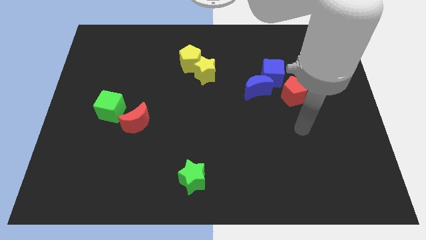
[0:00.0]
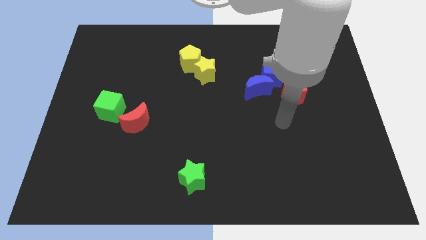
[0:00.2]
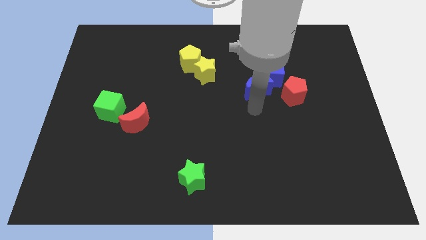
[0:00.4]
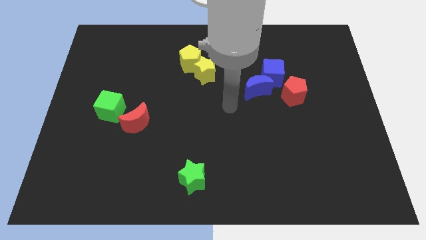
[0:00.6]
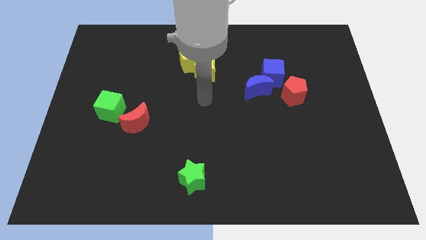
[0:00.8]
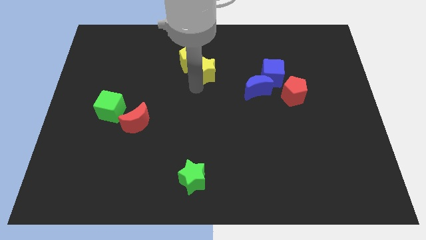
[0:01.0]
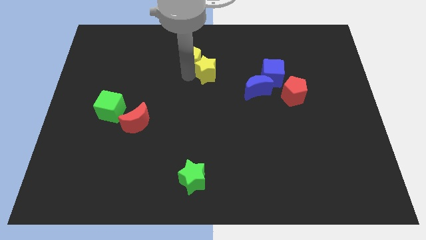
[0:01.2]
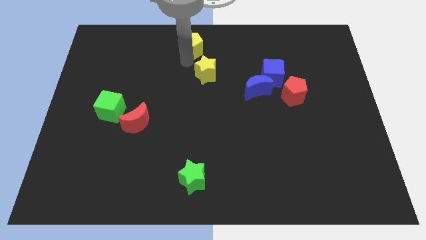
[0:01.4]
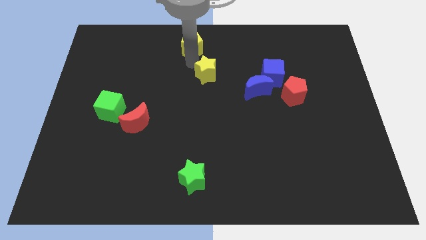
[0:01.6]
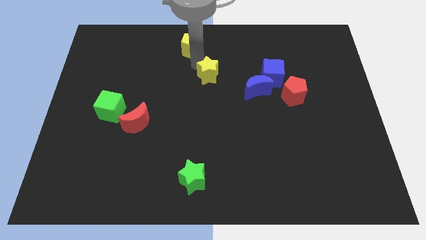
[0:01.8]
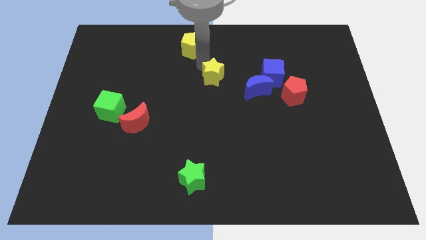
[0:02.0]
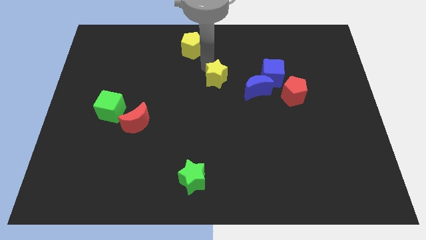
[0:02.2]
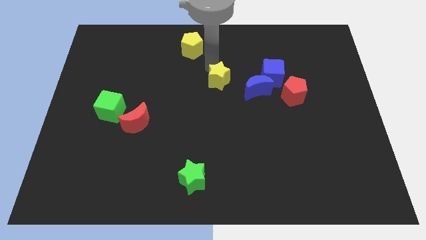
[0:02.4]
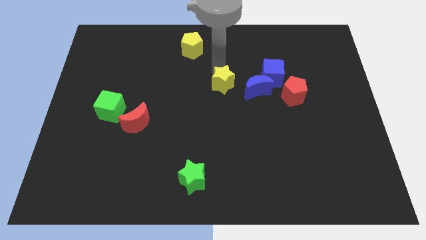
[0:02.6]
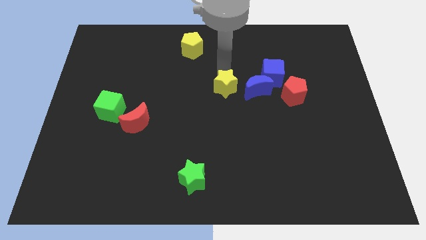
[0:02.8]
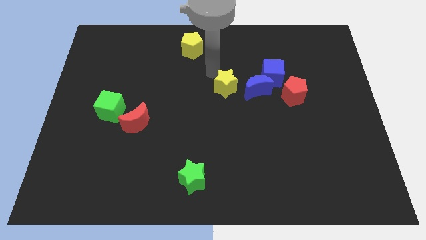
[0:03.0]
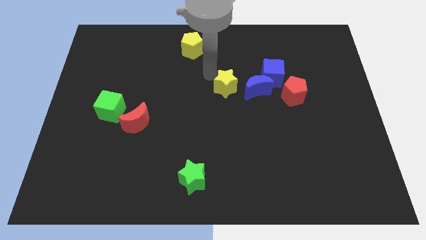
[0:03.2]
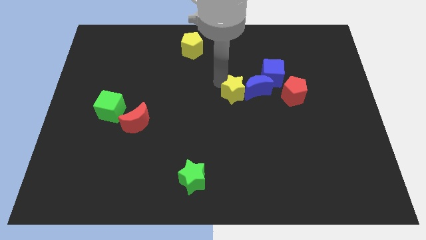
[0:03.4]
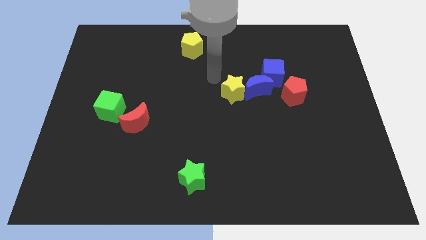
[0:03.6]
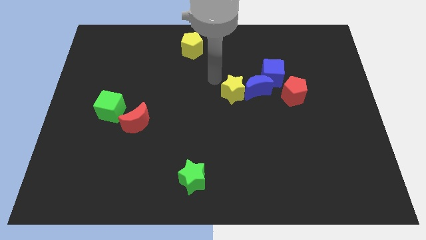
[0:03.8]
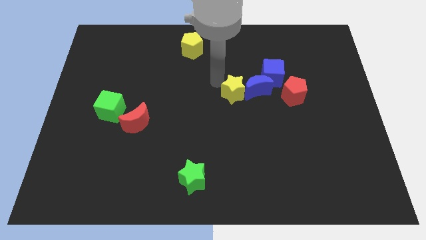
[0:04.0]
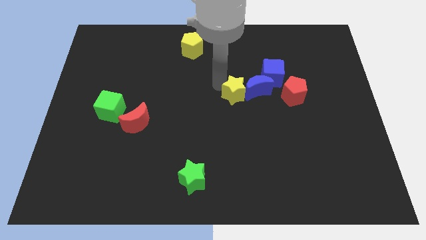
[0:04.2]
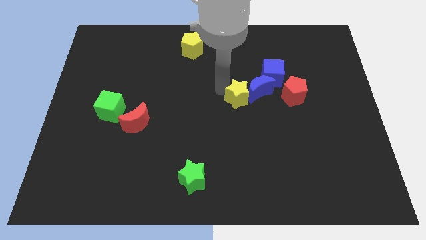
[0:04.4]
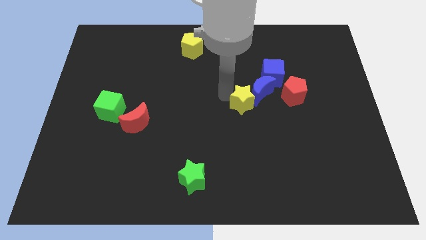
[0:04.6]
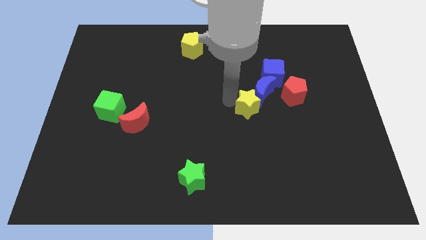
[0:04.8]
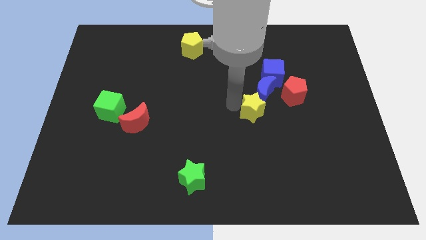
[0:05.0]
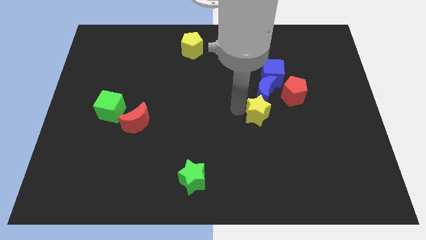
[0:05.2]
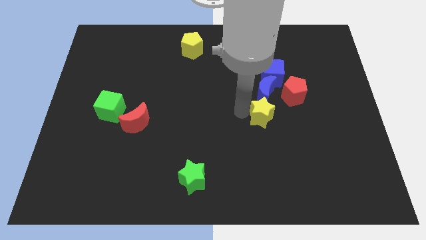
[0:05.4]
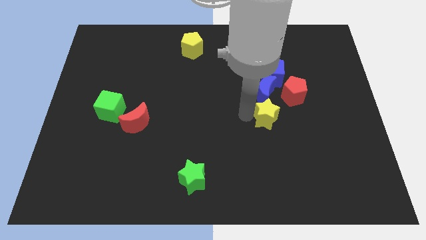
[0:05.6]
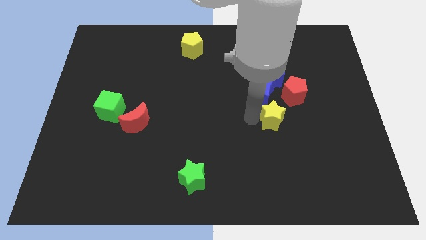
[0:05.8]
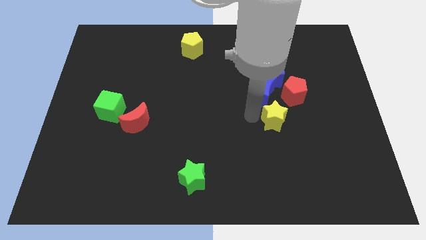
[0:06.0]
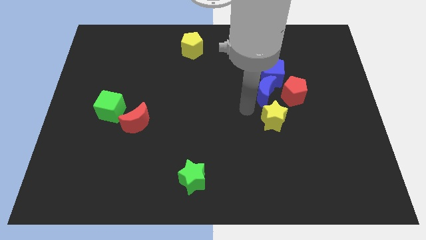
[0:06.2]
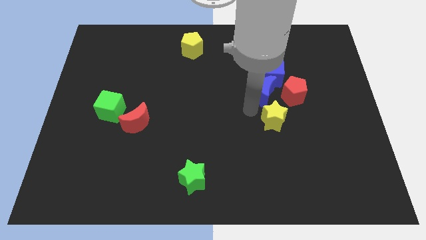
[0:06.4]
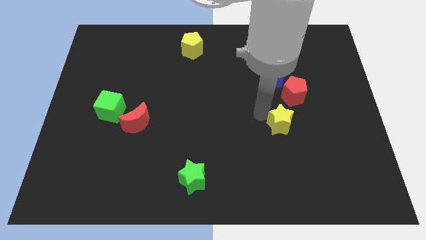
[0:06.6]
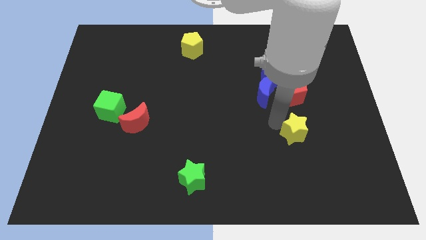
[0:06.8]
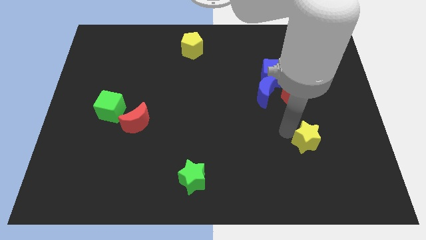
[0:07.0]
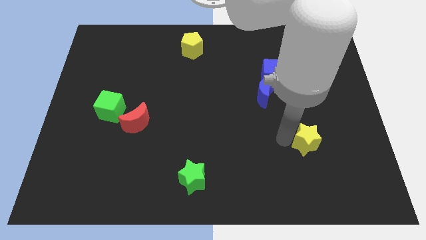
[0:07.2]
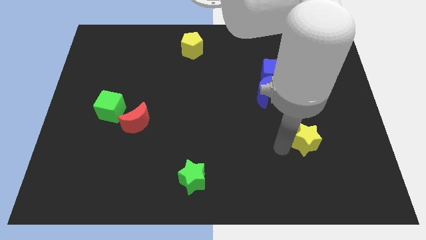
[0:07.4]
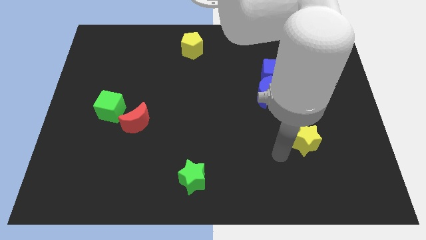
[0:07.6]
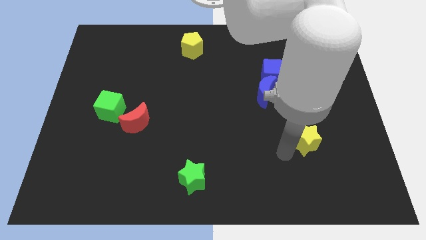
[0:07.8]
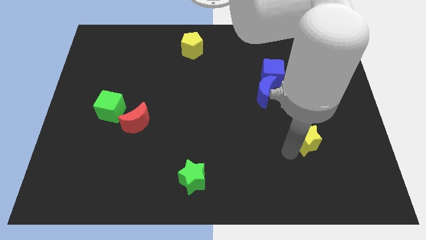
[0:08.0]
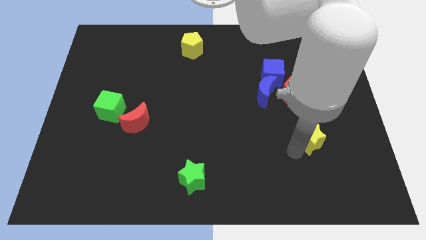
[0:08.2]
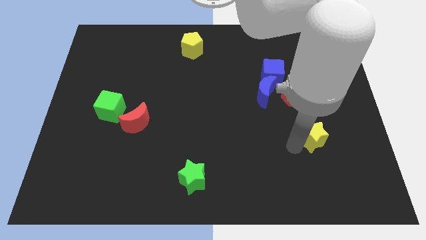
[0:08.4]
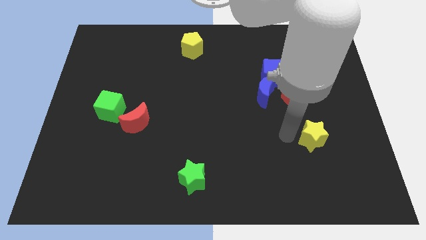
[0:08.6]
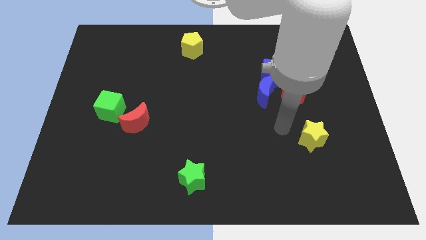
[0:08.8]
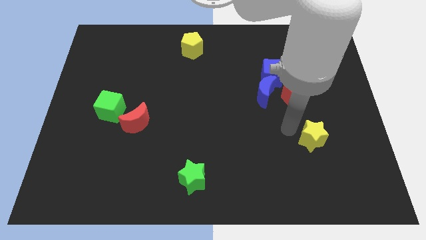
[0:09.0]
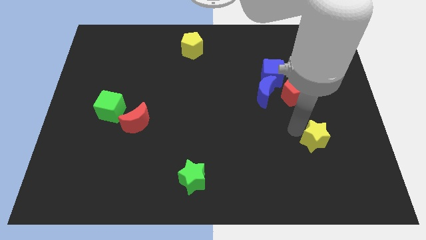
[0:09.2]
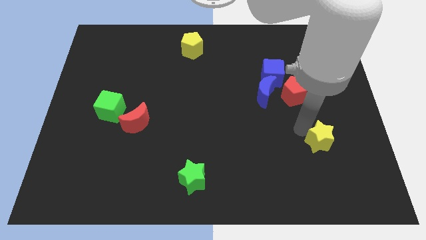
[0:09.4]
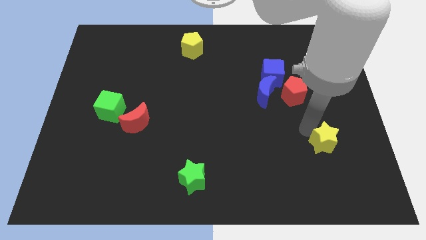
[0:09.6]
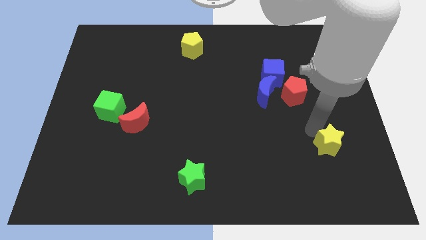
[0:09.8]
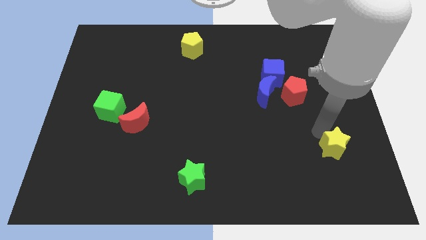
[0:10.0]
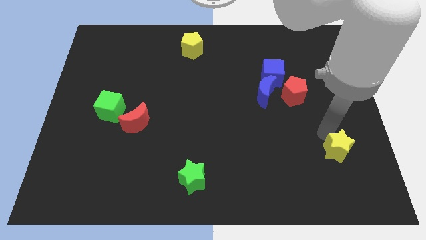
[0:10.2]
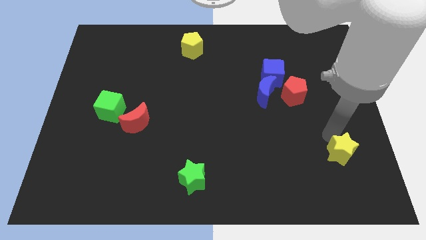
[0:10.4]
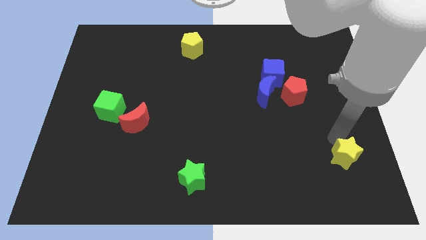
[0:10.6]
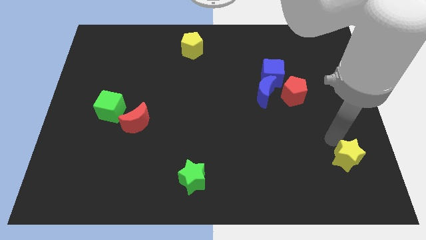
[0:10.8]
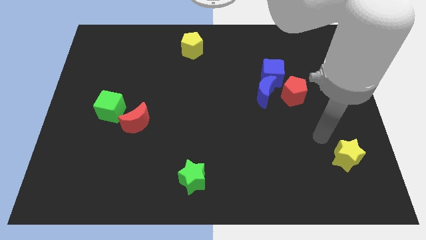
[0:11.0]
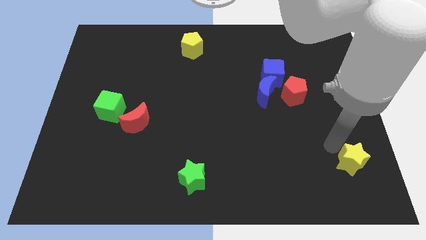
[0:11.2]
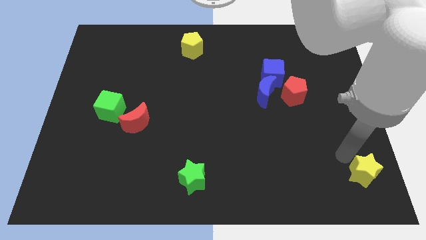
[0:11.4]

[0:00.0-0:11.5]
slide the yellow star to the bottom right of the board

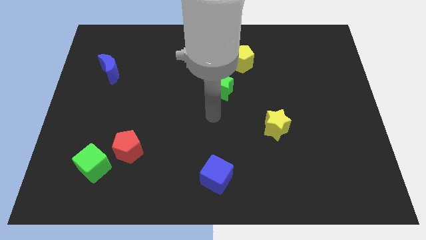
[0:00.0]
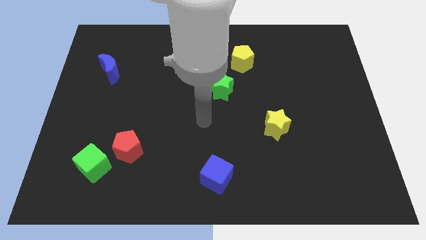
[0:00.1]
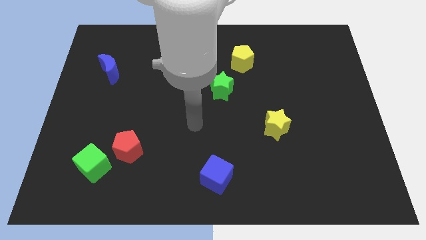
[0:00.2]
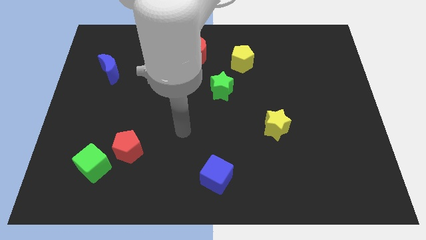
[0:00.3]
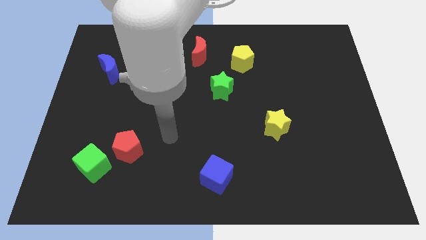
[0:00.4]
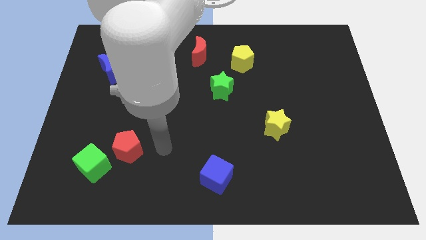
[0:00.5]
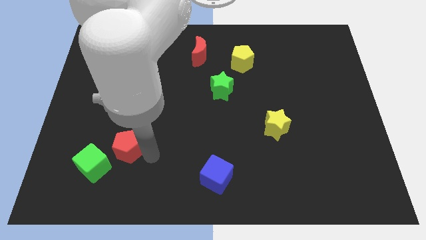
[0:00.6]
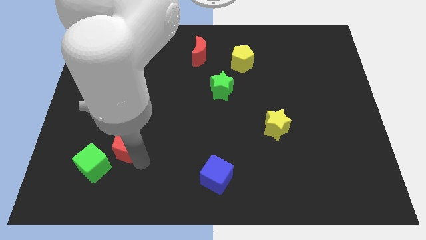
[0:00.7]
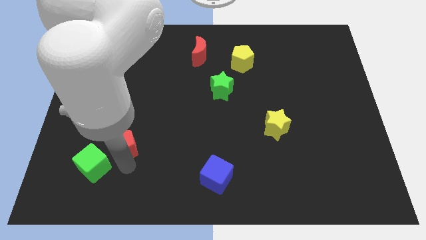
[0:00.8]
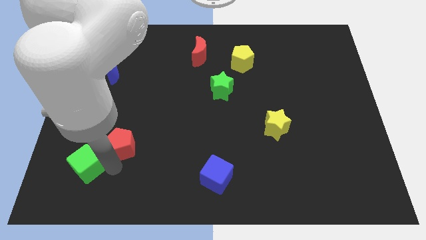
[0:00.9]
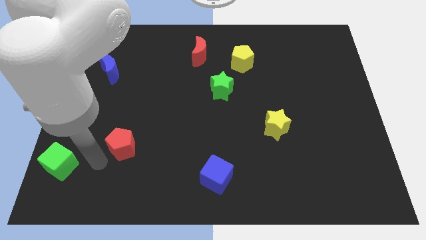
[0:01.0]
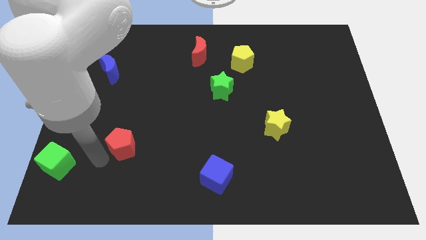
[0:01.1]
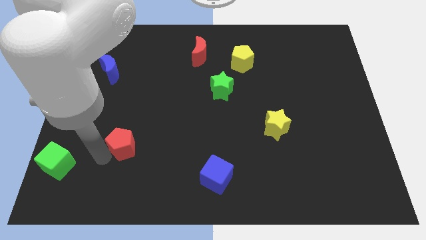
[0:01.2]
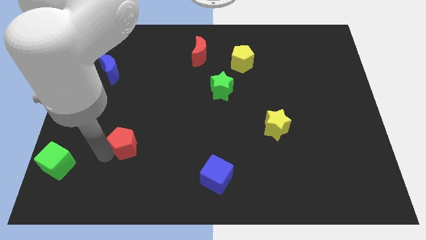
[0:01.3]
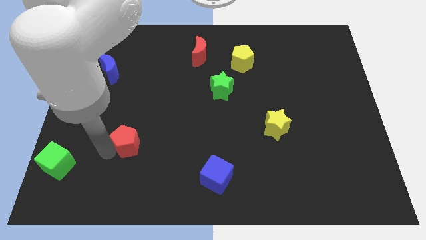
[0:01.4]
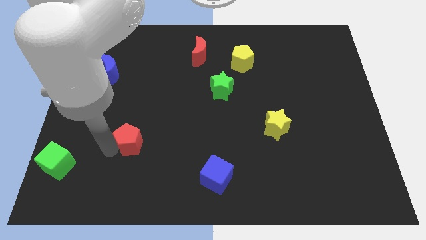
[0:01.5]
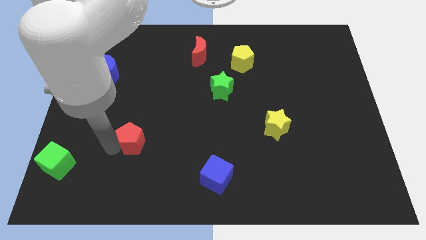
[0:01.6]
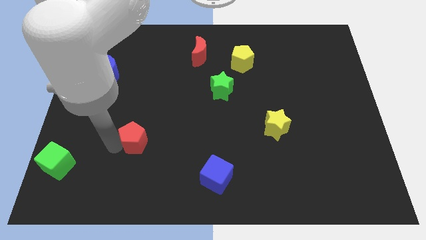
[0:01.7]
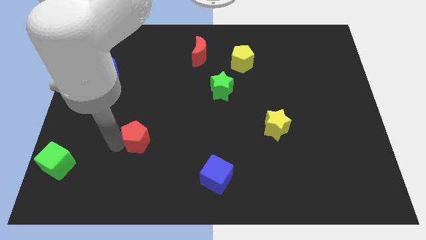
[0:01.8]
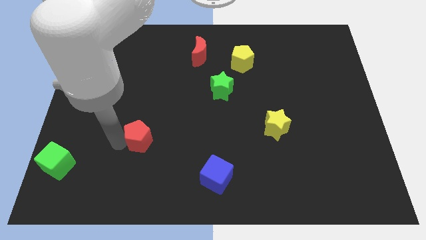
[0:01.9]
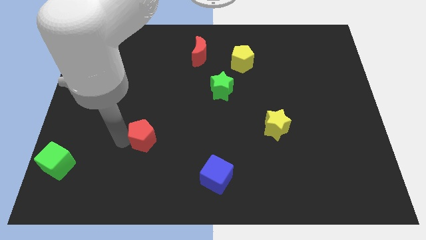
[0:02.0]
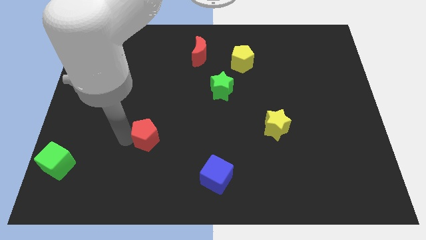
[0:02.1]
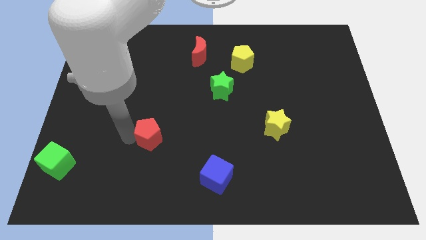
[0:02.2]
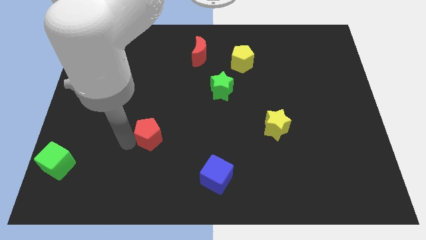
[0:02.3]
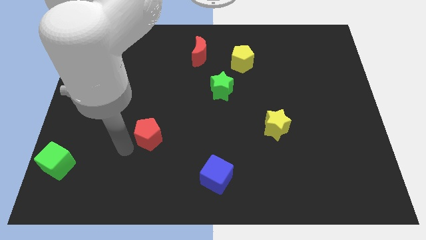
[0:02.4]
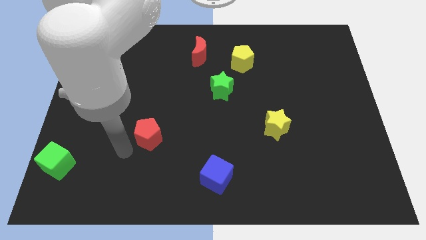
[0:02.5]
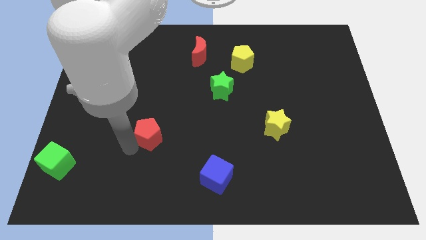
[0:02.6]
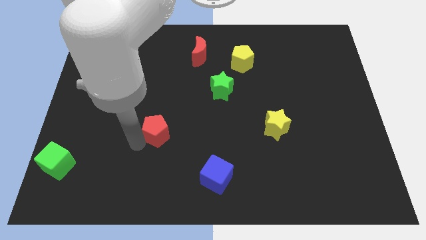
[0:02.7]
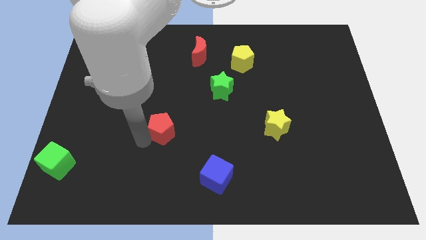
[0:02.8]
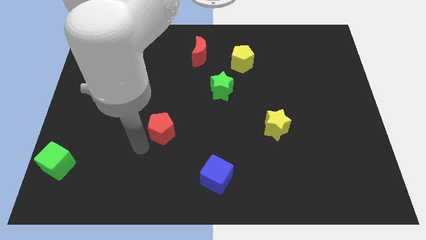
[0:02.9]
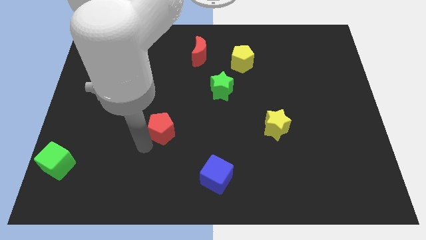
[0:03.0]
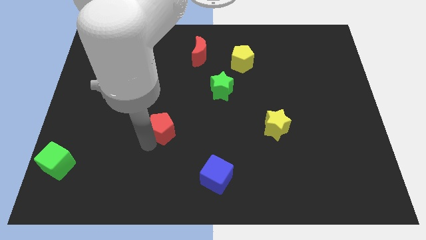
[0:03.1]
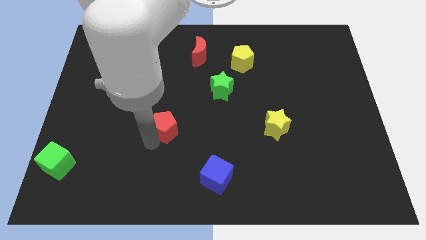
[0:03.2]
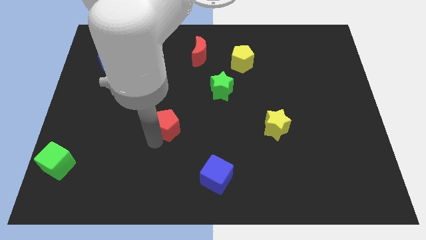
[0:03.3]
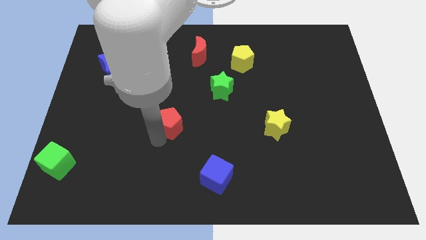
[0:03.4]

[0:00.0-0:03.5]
push the red pentagon to the center of the board
